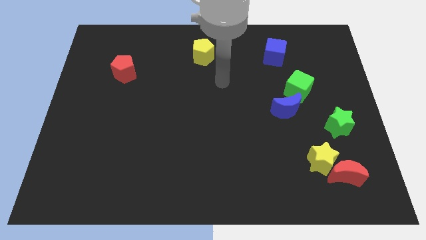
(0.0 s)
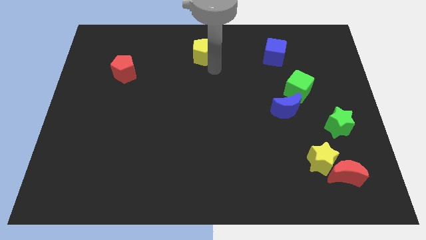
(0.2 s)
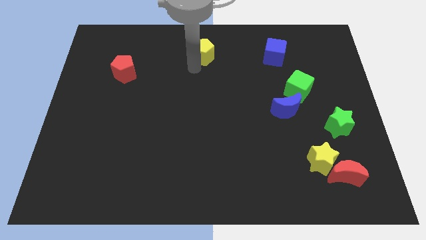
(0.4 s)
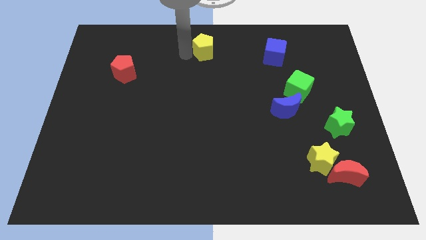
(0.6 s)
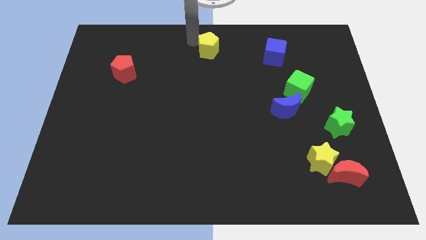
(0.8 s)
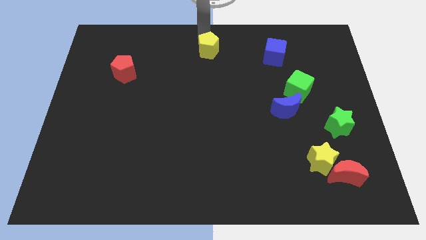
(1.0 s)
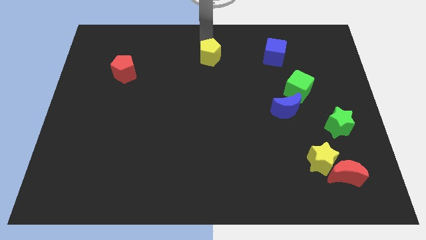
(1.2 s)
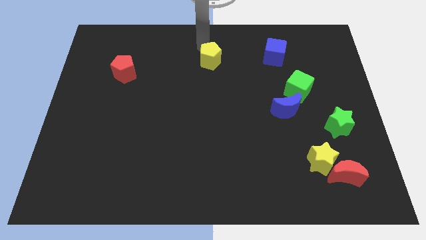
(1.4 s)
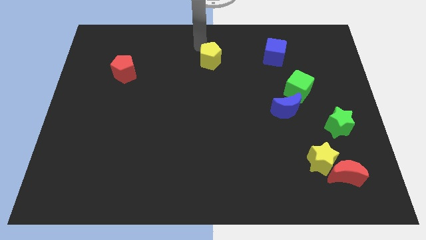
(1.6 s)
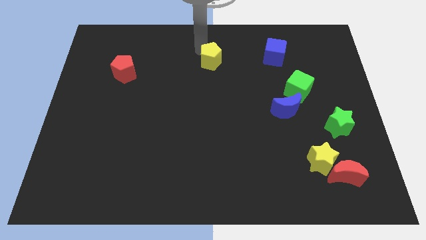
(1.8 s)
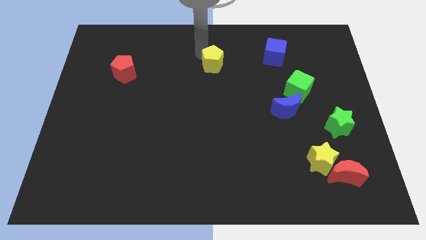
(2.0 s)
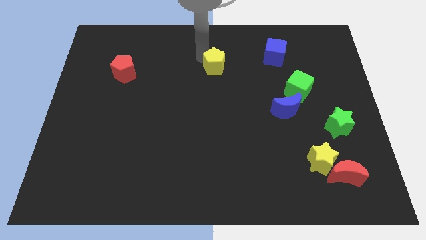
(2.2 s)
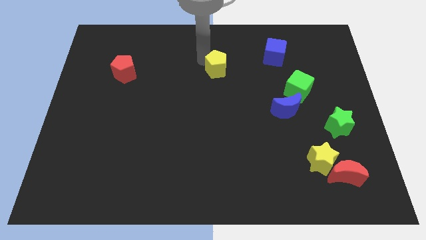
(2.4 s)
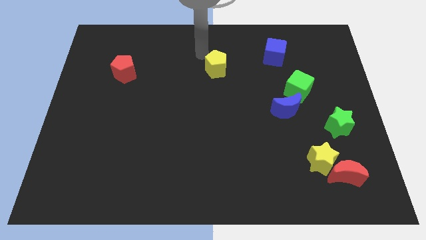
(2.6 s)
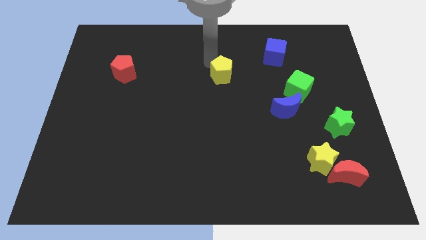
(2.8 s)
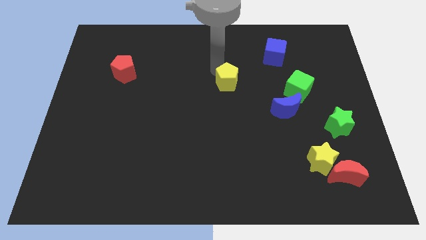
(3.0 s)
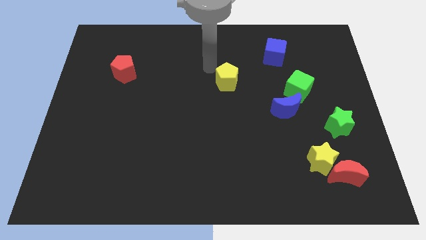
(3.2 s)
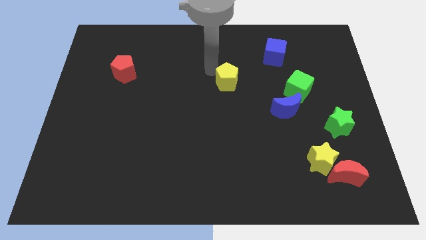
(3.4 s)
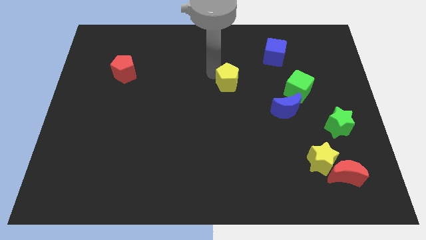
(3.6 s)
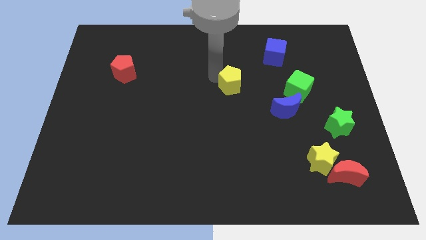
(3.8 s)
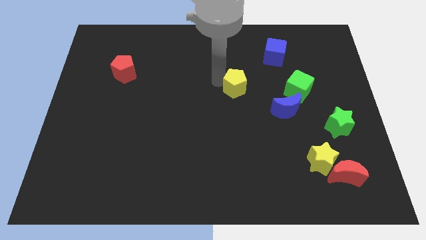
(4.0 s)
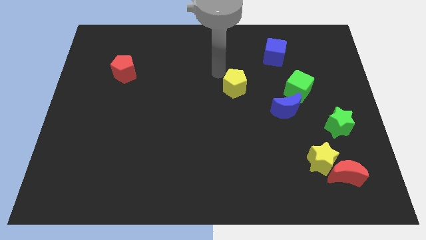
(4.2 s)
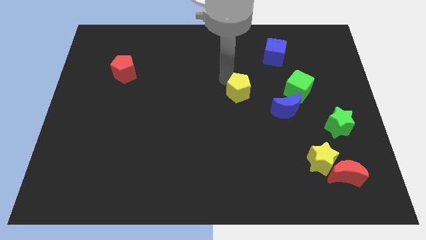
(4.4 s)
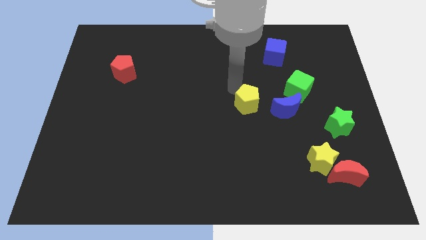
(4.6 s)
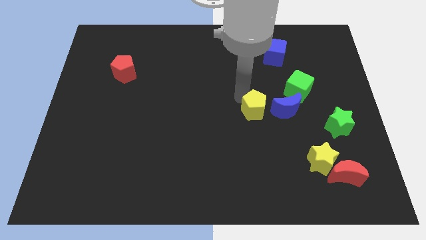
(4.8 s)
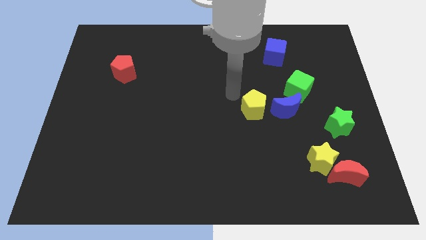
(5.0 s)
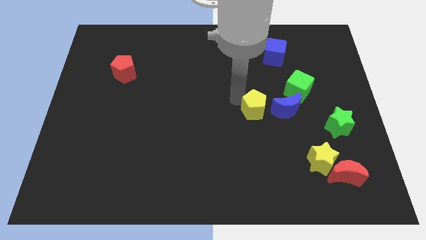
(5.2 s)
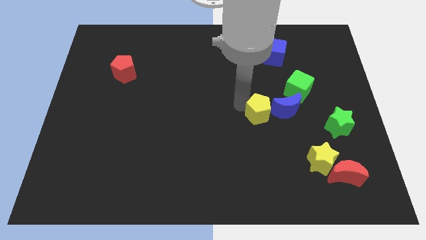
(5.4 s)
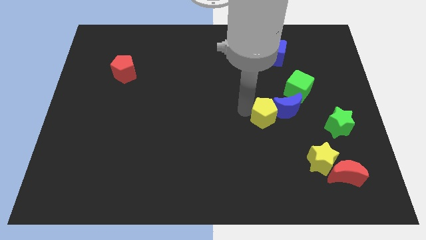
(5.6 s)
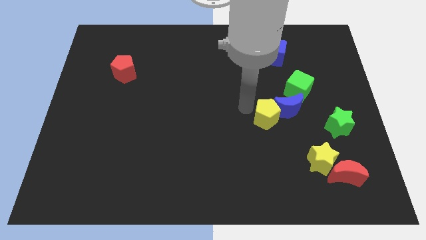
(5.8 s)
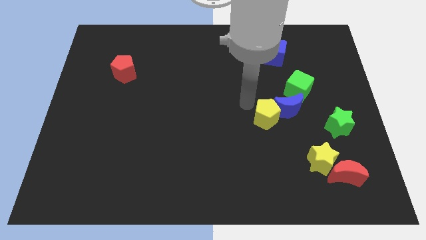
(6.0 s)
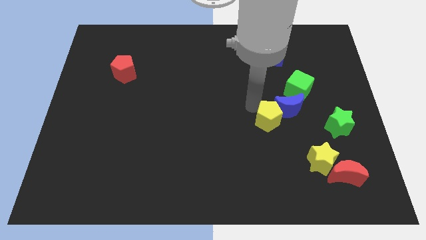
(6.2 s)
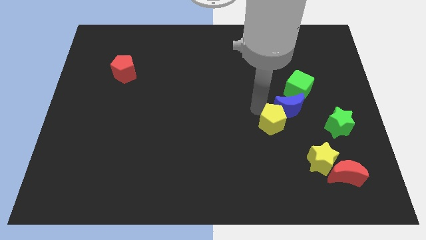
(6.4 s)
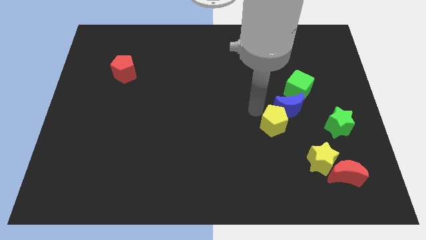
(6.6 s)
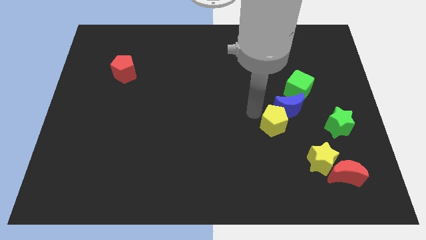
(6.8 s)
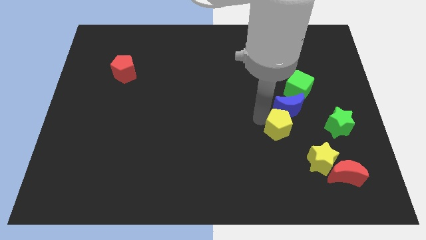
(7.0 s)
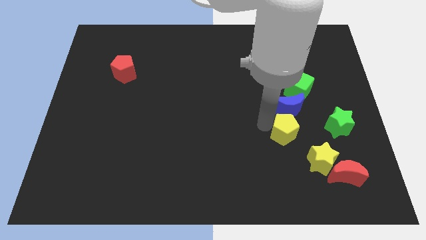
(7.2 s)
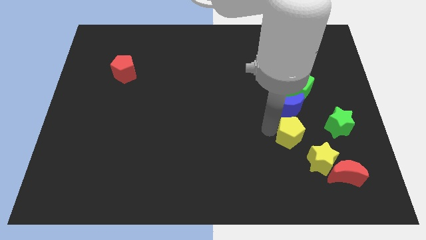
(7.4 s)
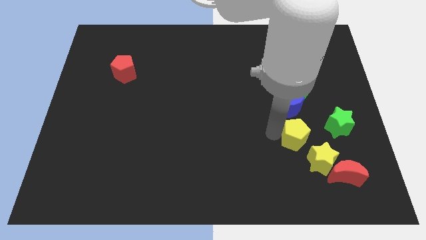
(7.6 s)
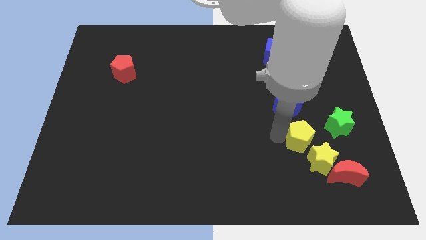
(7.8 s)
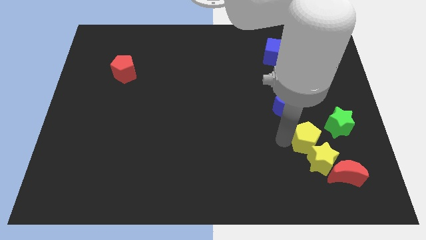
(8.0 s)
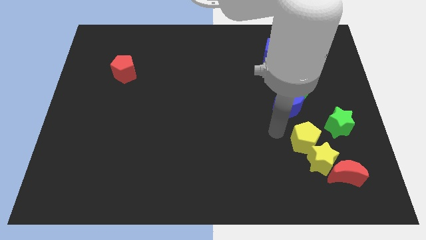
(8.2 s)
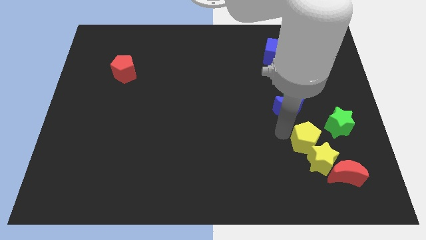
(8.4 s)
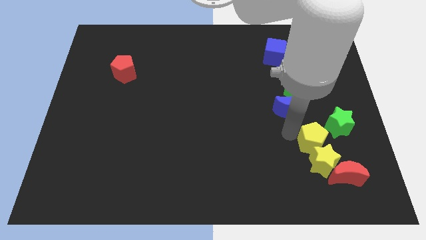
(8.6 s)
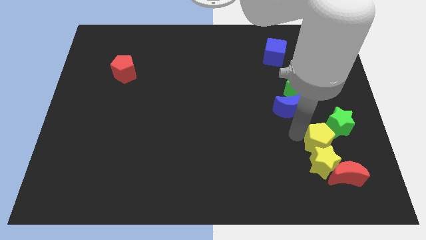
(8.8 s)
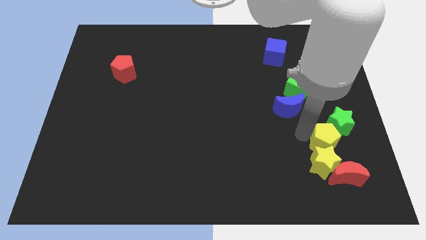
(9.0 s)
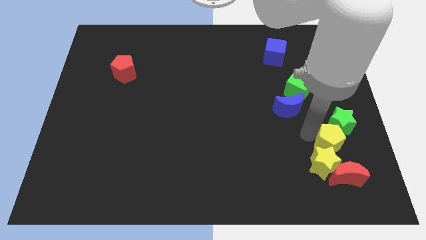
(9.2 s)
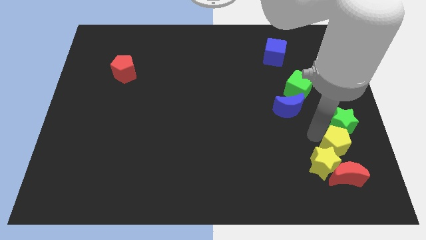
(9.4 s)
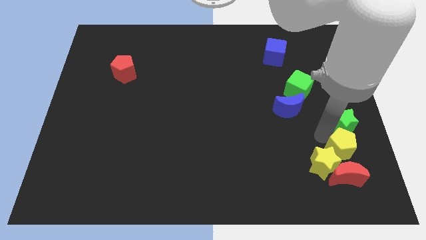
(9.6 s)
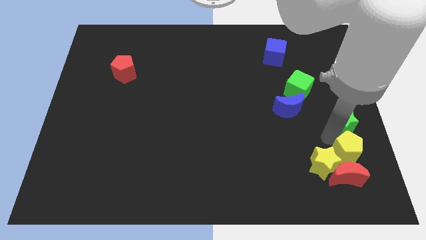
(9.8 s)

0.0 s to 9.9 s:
move the yellow pentagon next to the red moon

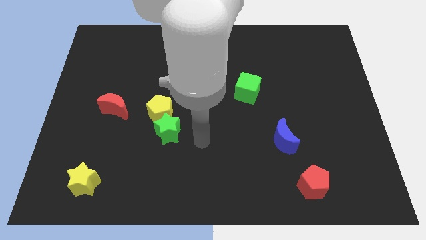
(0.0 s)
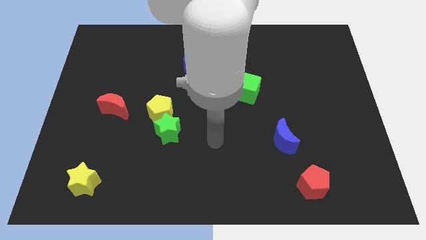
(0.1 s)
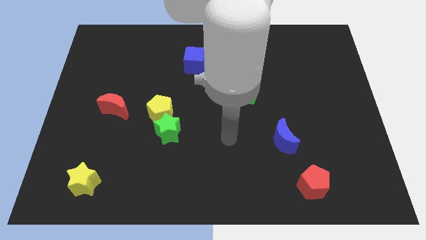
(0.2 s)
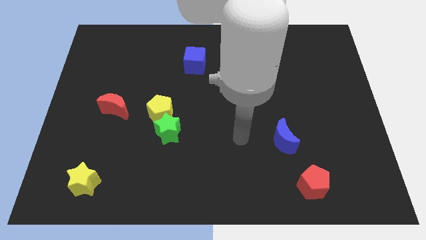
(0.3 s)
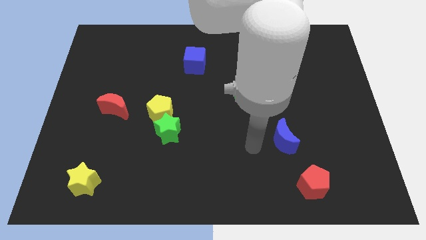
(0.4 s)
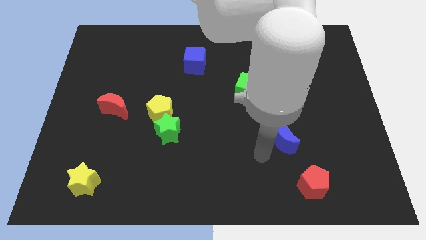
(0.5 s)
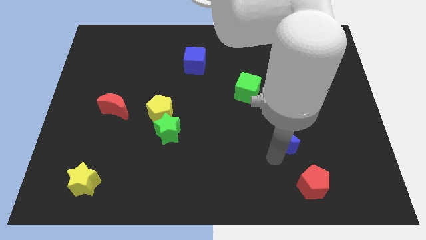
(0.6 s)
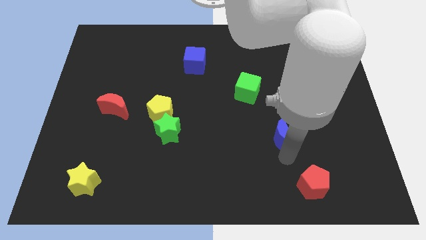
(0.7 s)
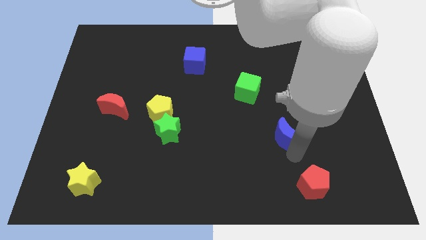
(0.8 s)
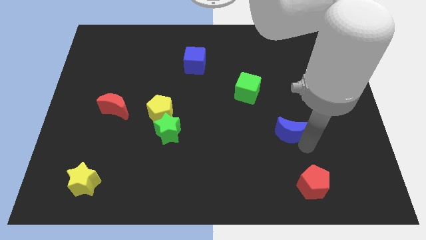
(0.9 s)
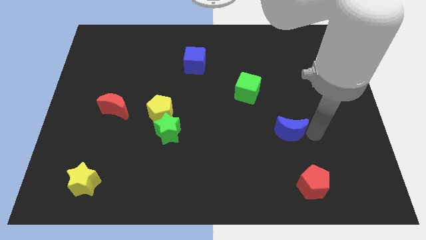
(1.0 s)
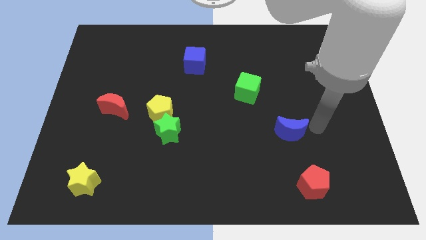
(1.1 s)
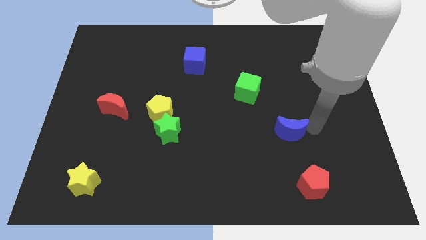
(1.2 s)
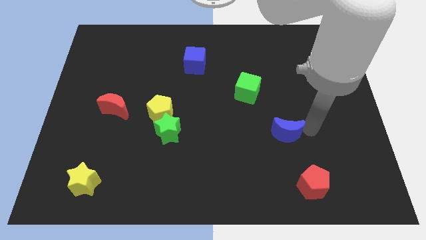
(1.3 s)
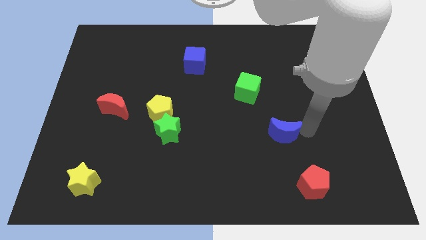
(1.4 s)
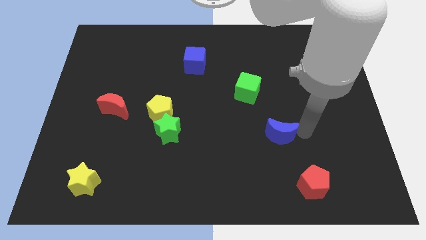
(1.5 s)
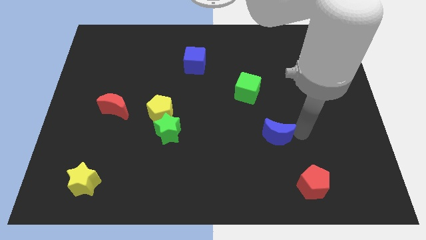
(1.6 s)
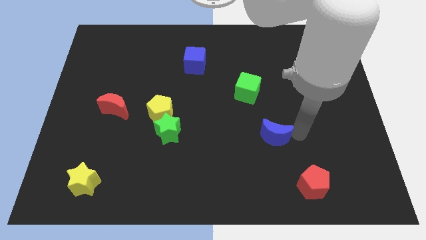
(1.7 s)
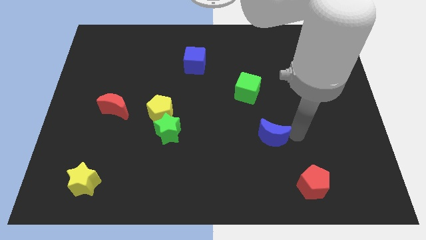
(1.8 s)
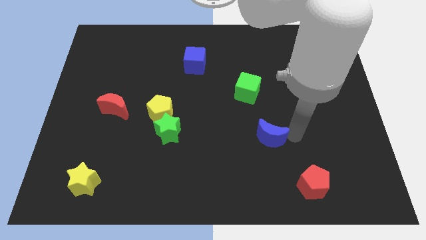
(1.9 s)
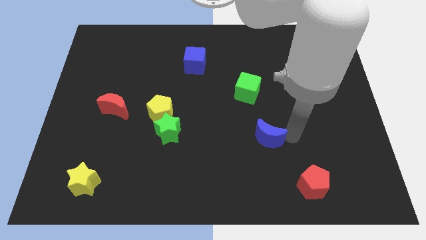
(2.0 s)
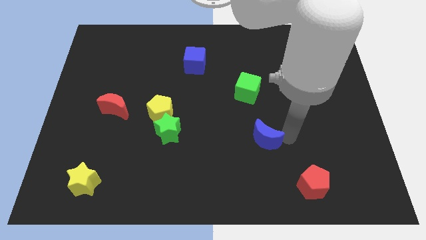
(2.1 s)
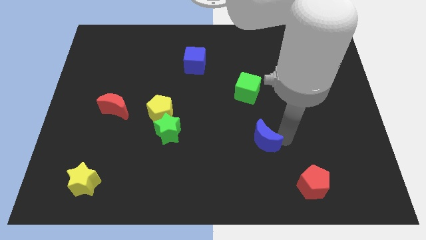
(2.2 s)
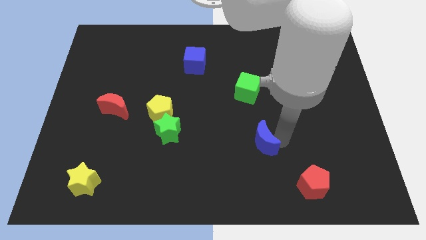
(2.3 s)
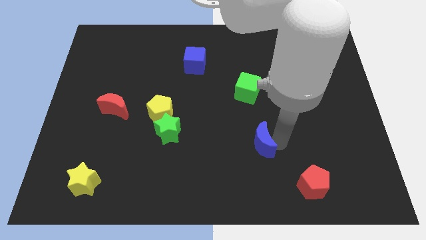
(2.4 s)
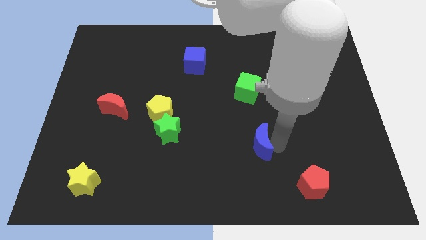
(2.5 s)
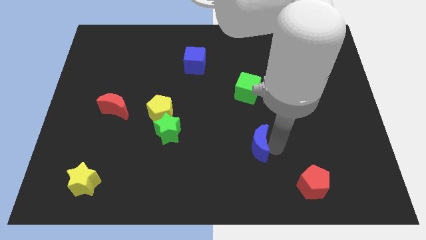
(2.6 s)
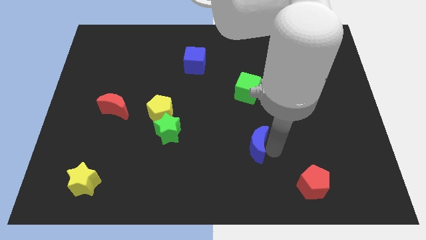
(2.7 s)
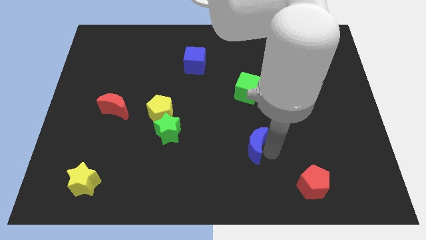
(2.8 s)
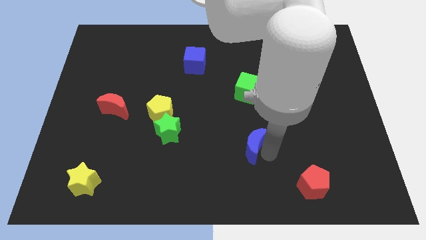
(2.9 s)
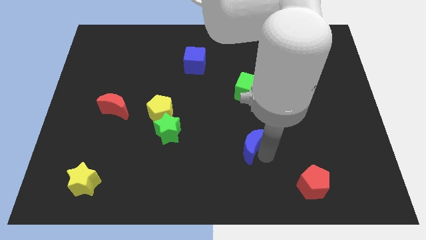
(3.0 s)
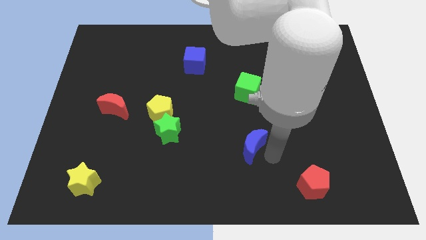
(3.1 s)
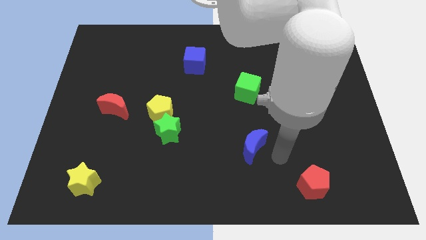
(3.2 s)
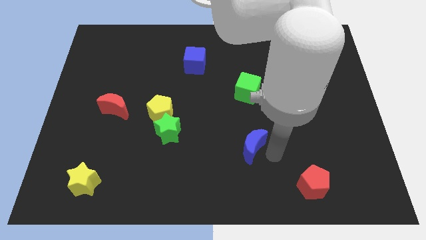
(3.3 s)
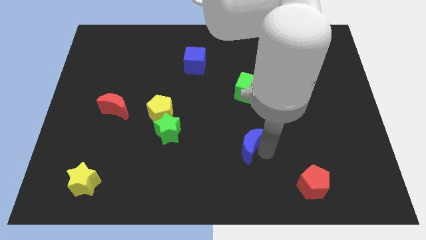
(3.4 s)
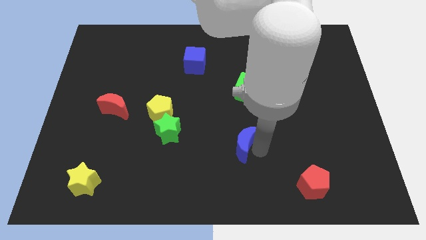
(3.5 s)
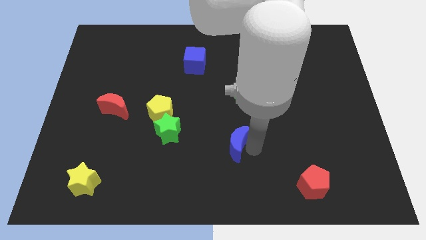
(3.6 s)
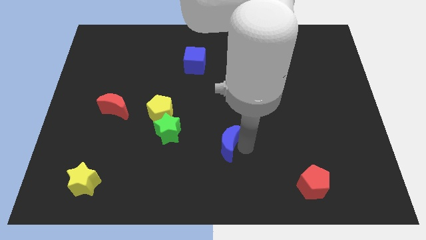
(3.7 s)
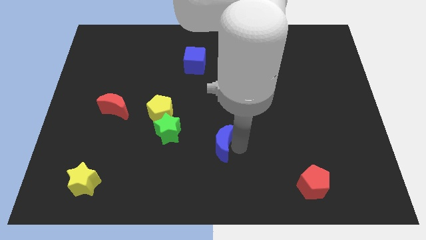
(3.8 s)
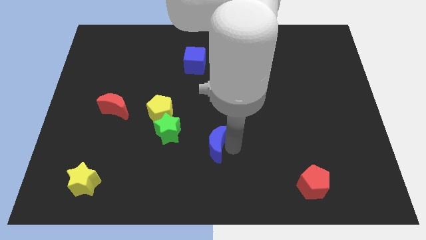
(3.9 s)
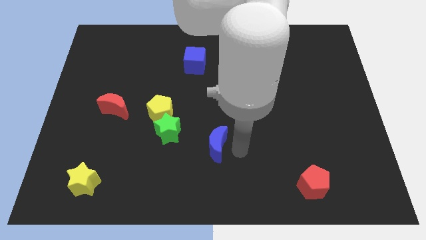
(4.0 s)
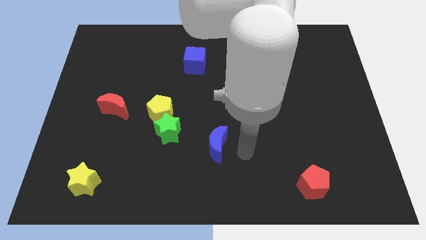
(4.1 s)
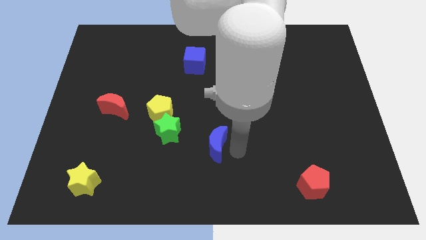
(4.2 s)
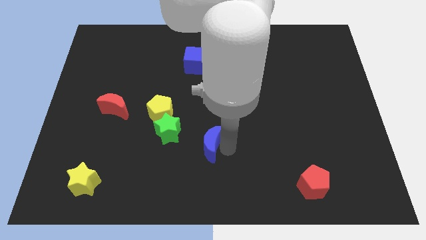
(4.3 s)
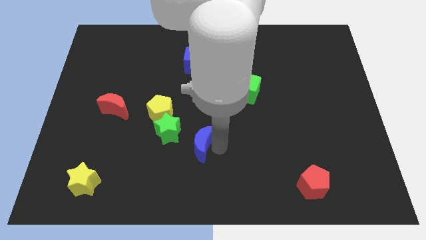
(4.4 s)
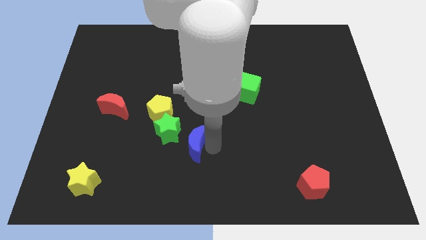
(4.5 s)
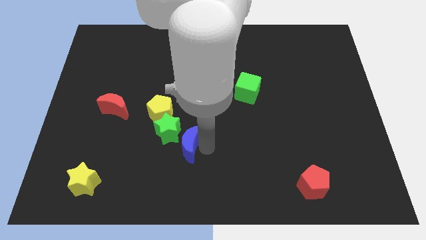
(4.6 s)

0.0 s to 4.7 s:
put the blue moon close to the green star
